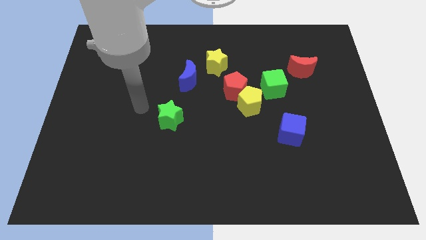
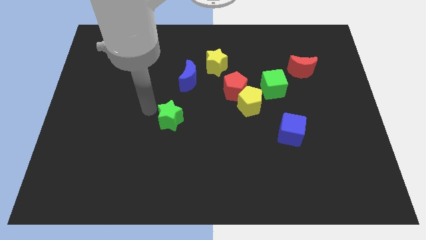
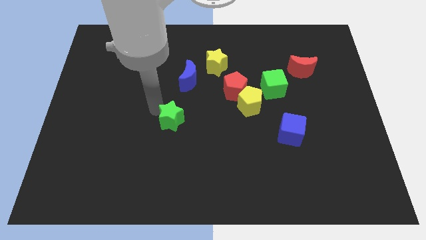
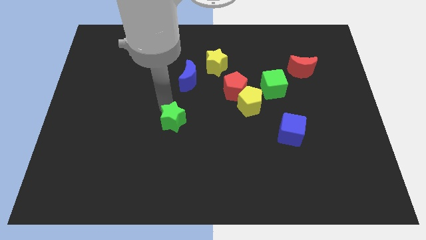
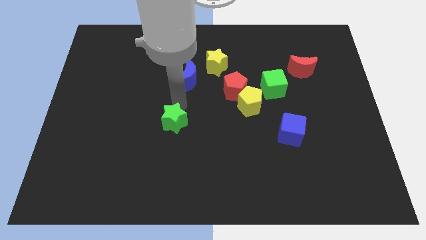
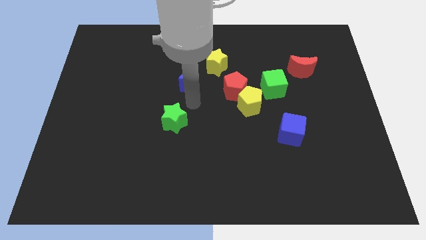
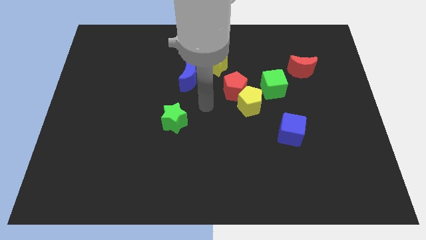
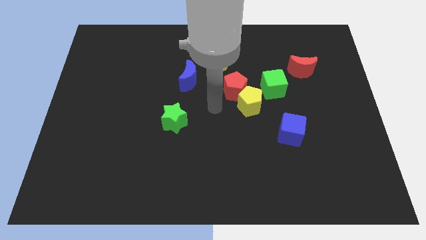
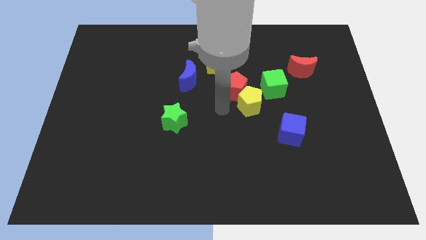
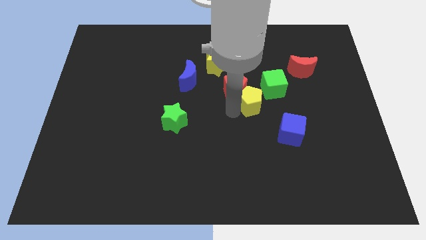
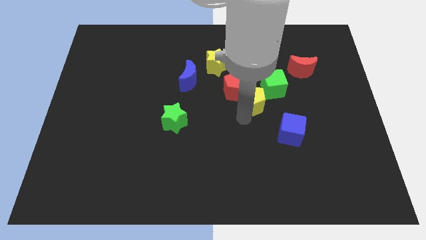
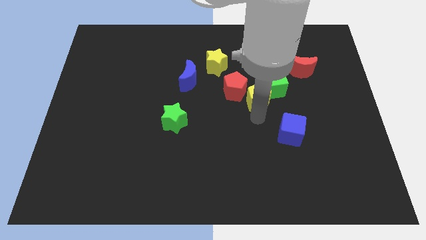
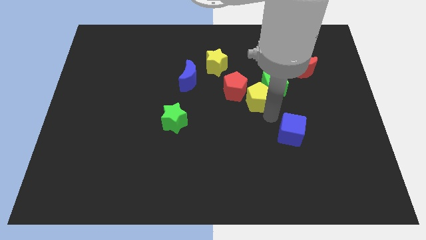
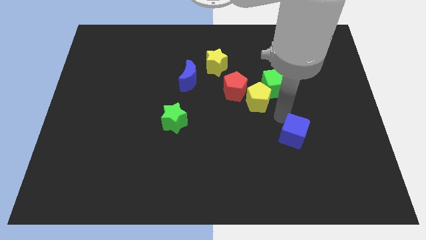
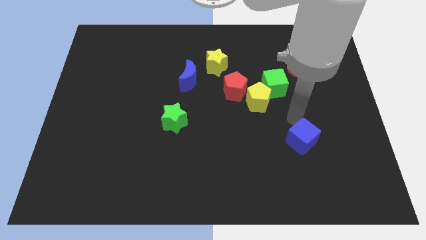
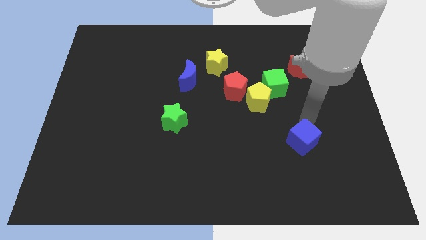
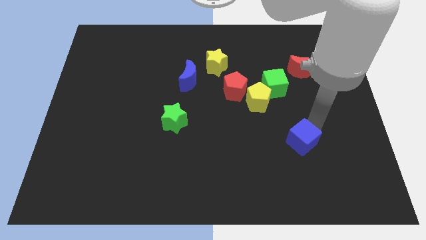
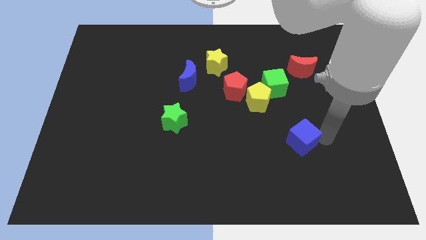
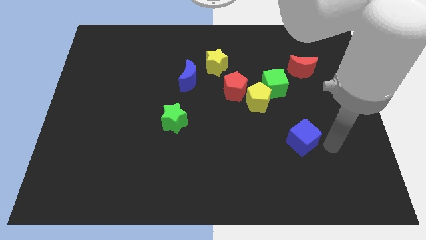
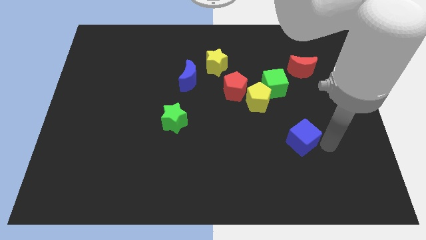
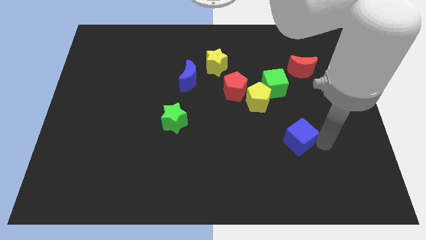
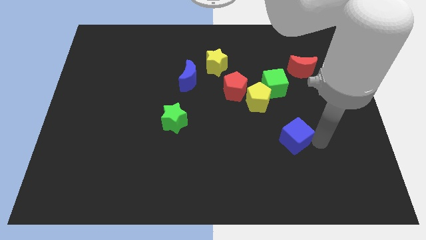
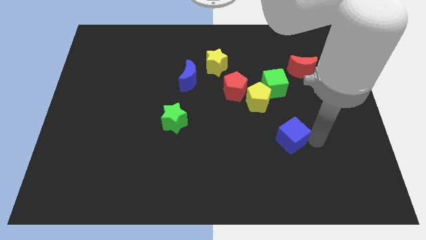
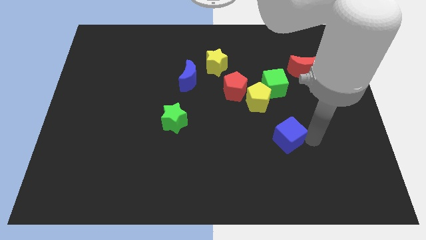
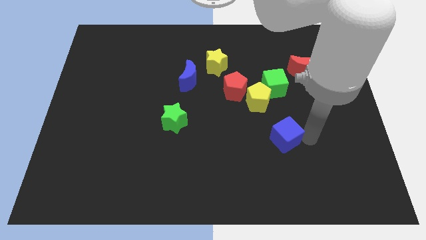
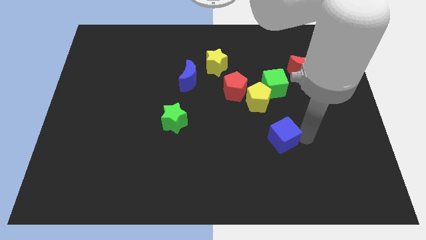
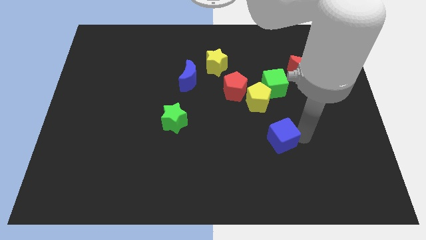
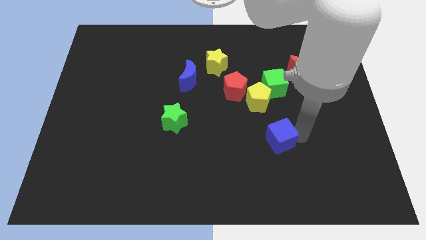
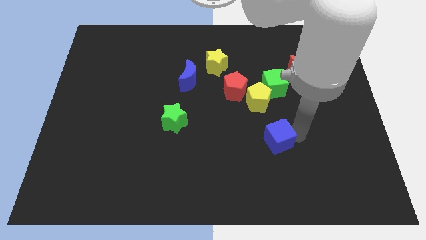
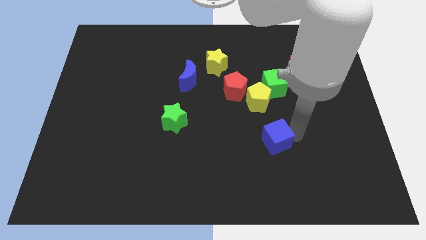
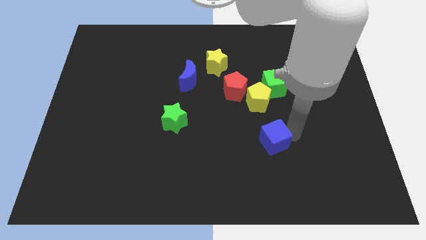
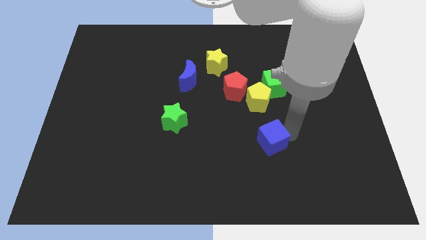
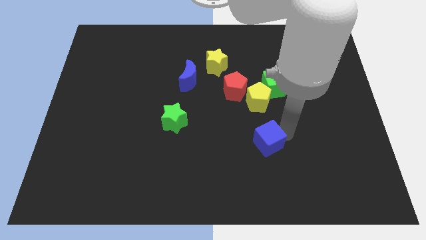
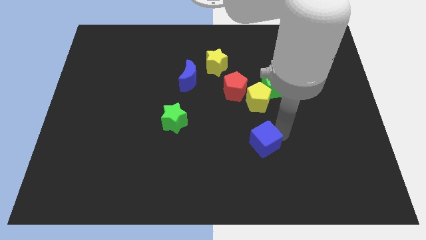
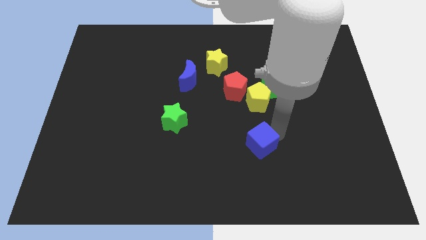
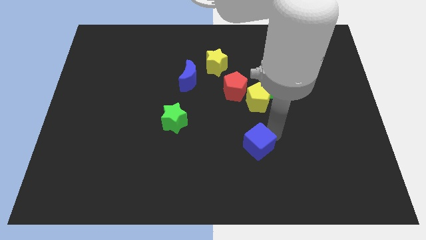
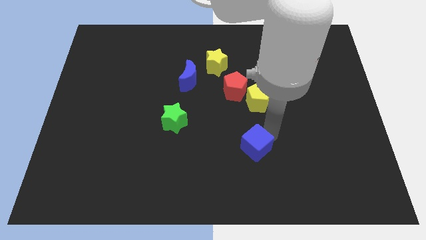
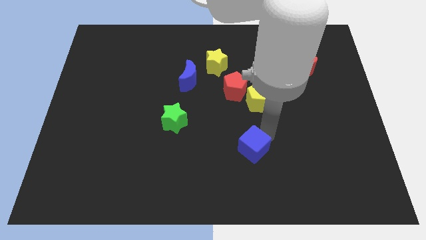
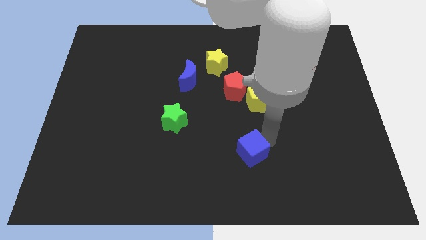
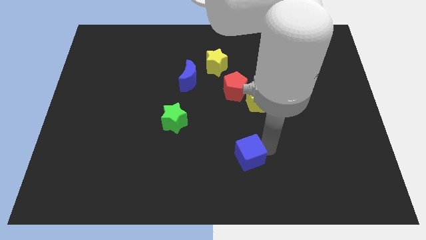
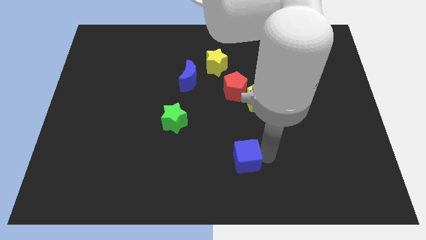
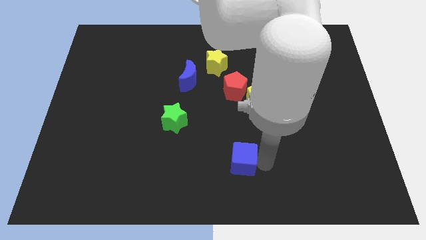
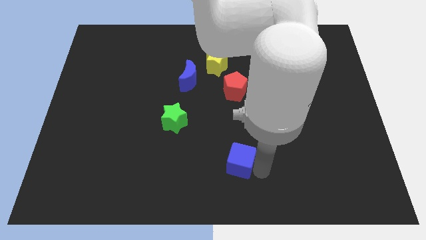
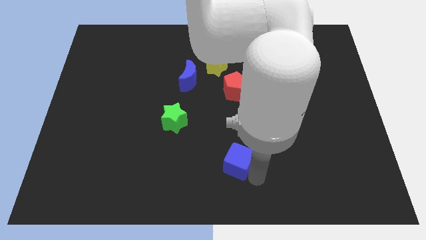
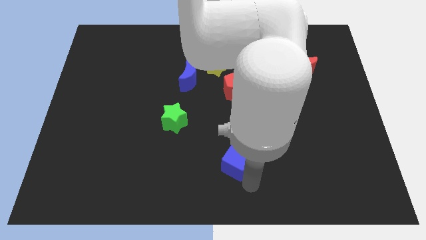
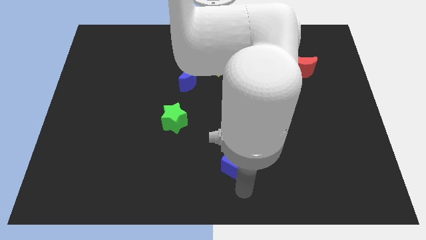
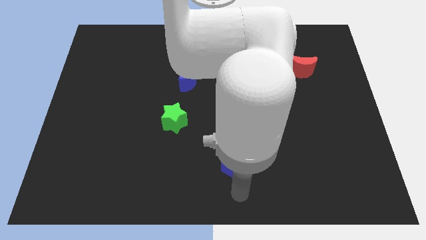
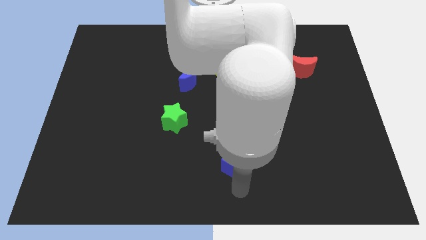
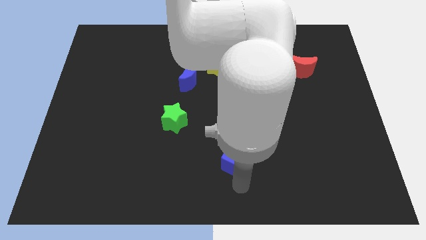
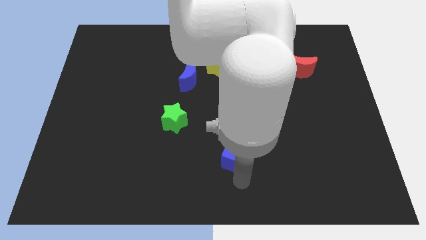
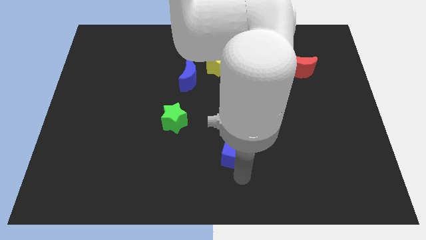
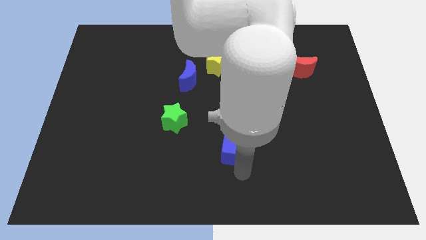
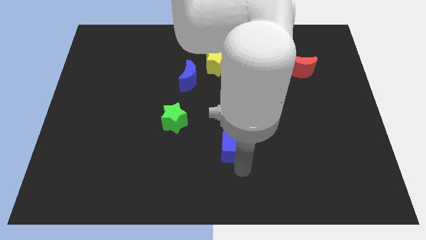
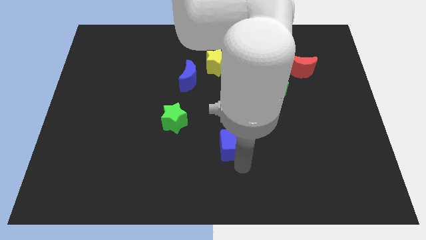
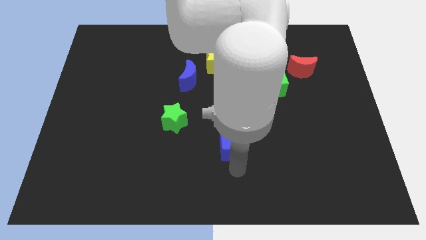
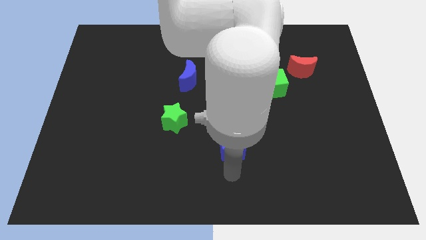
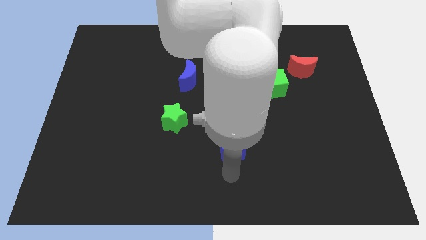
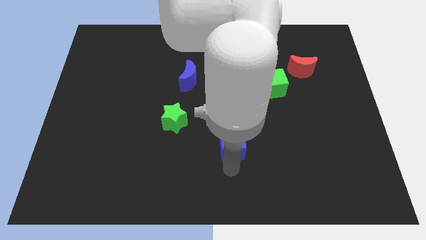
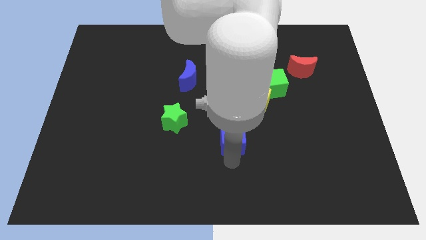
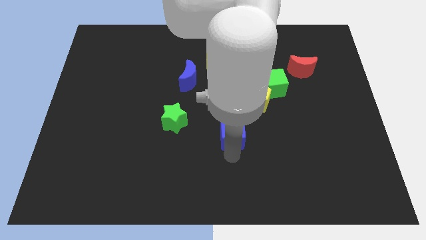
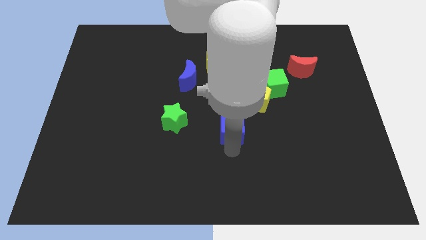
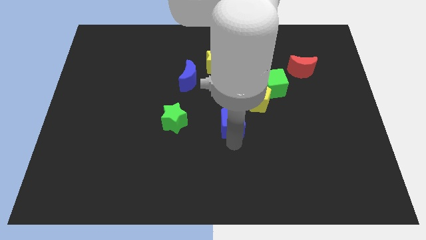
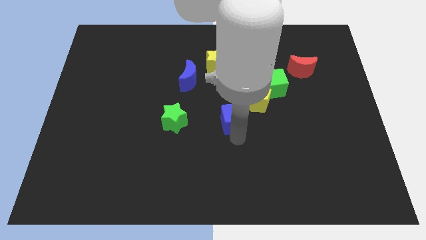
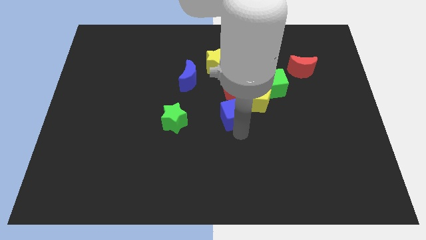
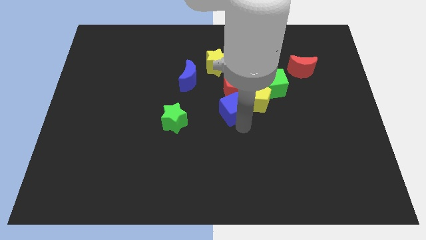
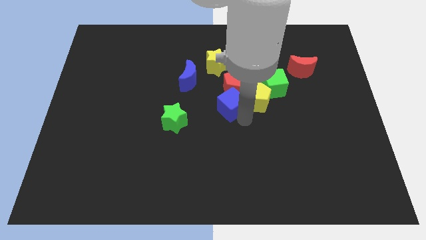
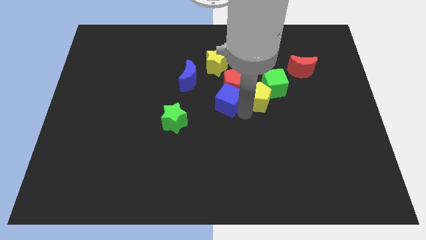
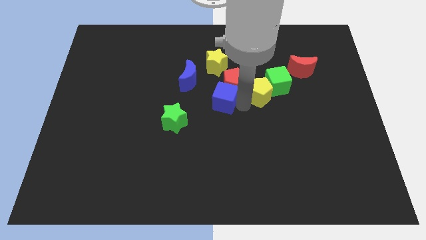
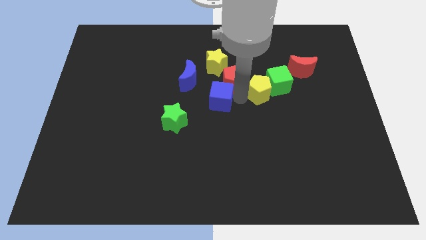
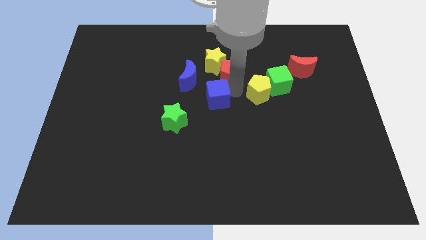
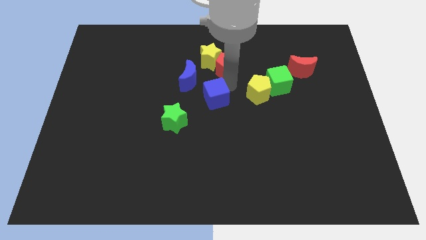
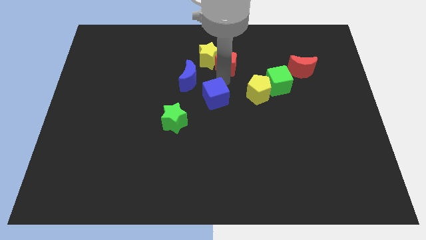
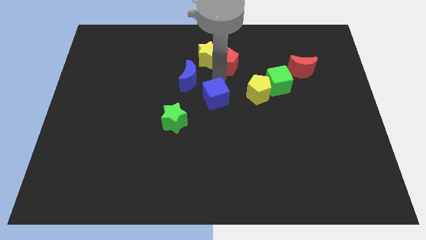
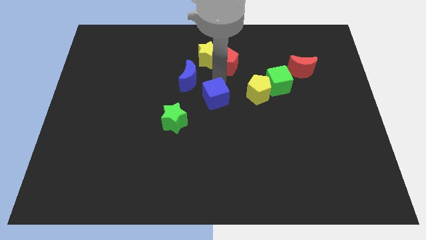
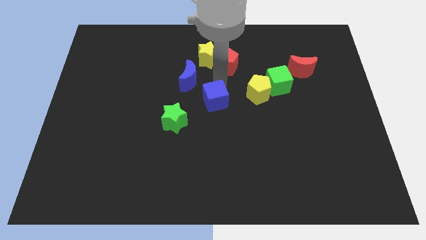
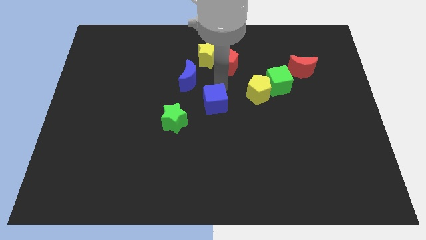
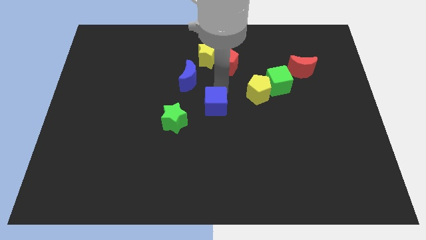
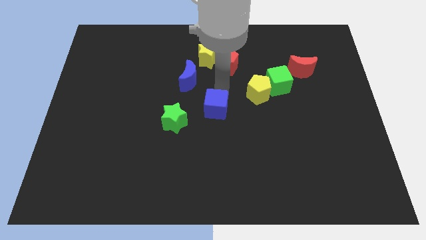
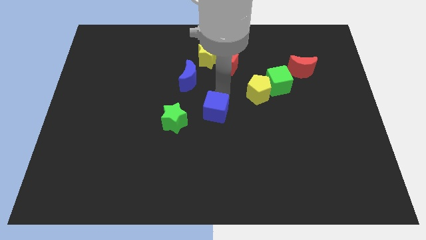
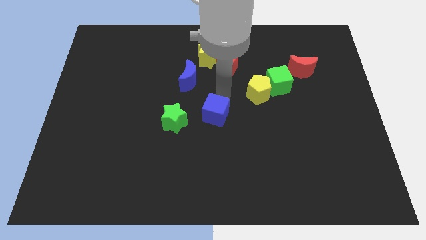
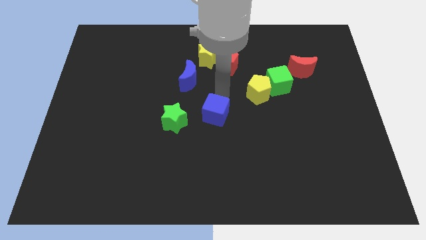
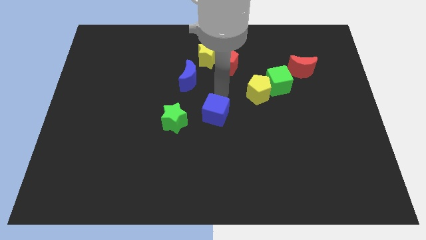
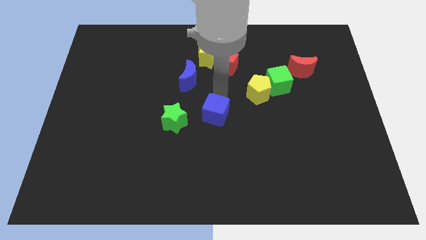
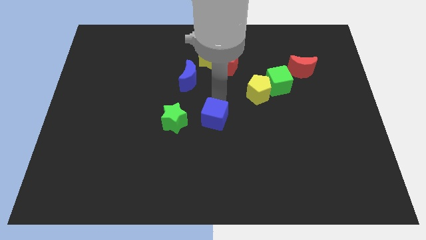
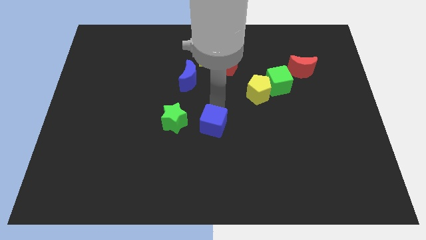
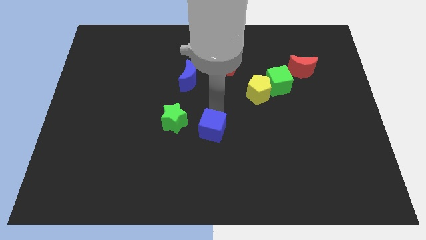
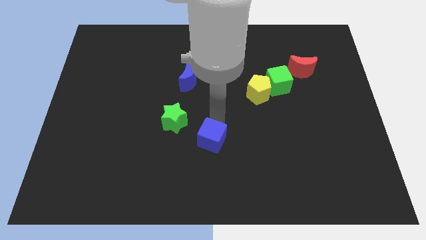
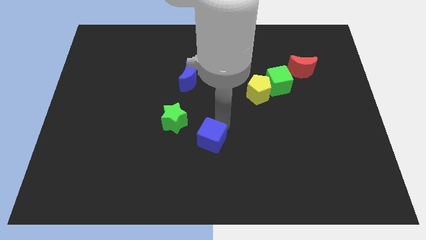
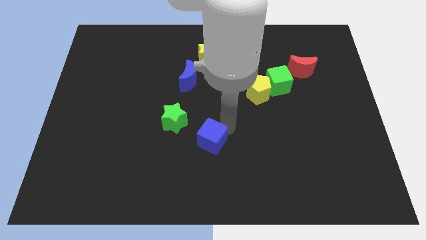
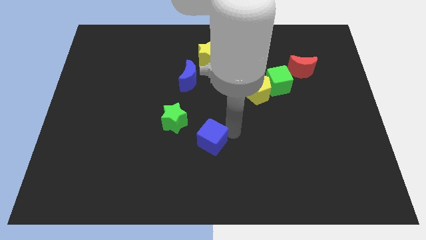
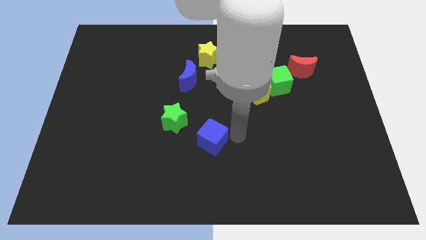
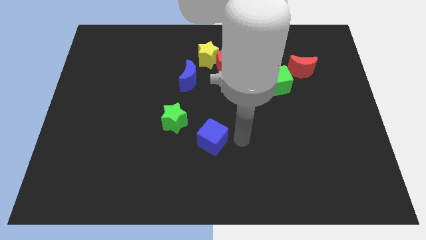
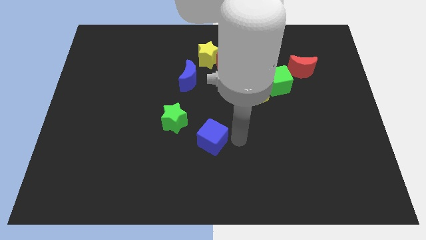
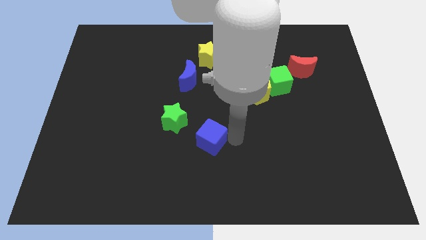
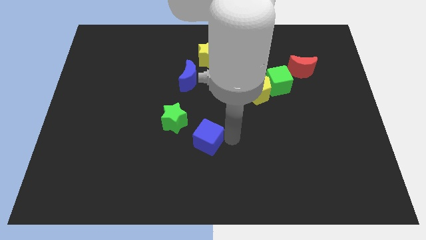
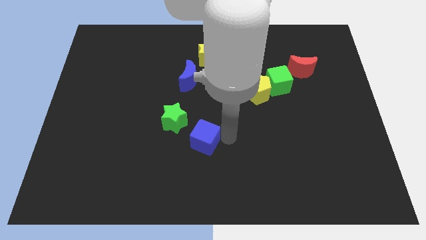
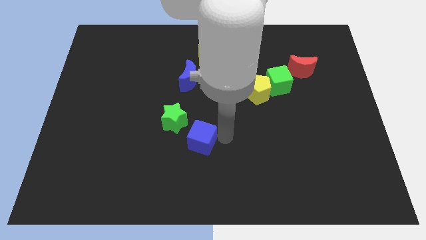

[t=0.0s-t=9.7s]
slide the blue cube left
